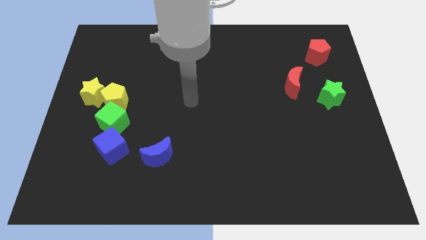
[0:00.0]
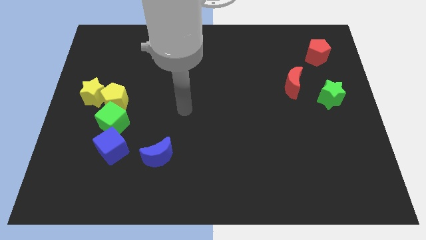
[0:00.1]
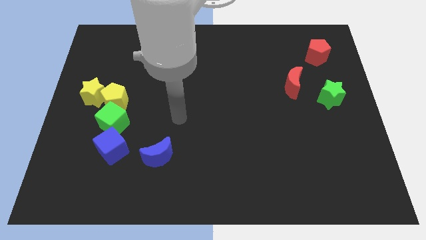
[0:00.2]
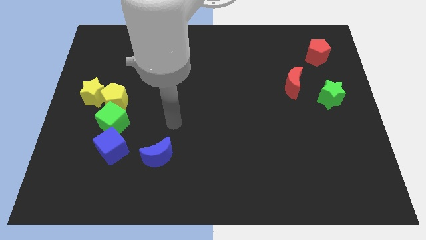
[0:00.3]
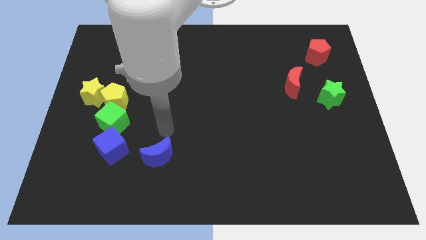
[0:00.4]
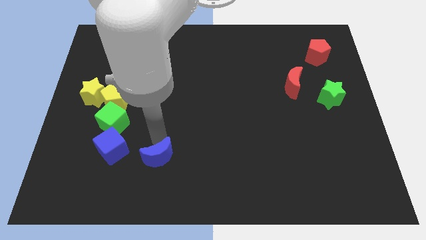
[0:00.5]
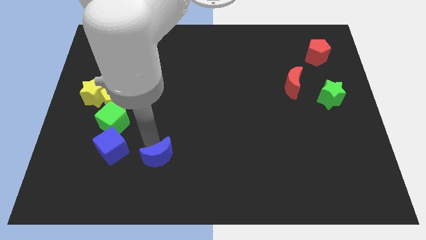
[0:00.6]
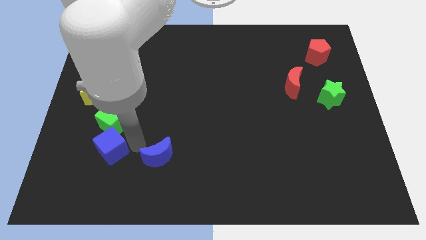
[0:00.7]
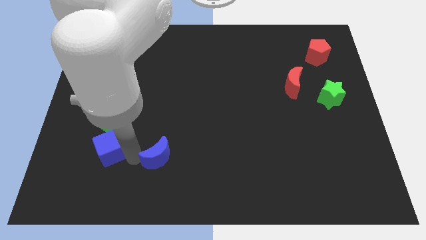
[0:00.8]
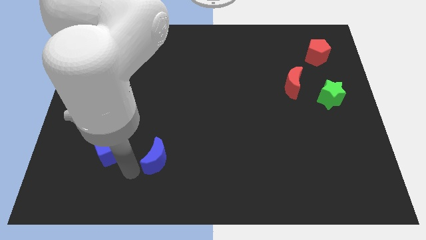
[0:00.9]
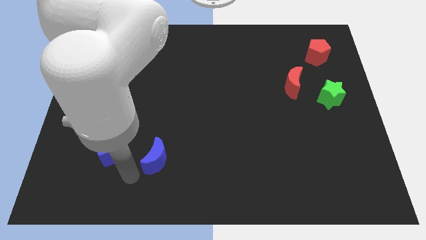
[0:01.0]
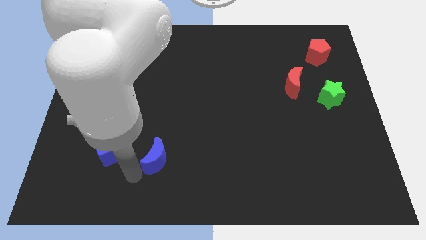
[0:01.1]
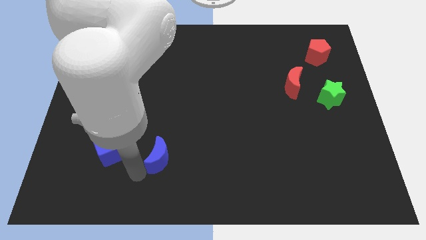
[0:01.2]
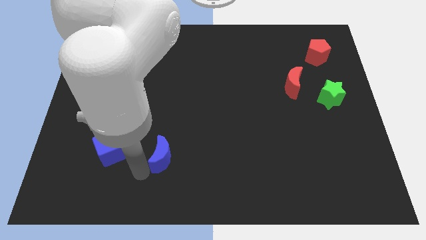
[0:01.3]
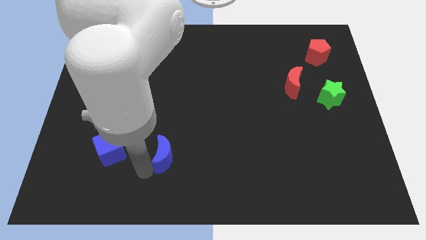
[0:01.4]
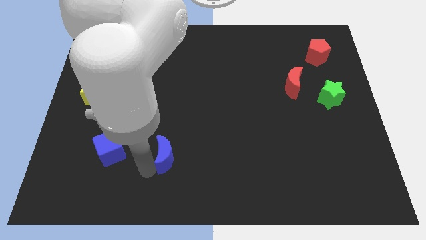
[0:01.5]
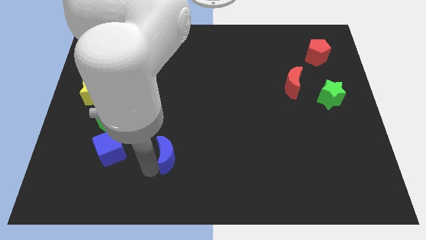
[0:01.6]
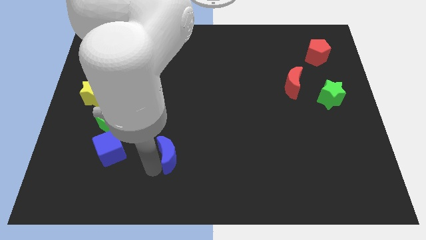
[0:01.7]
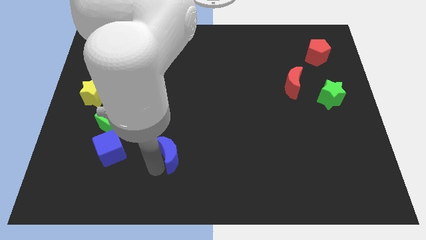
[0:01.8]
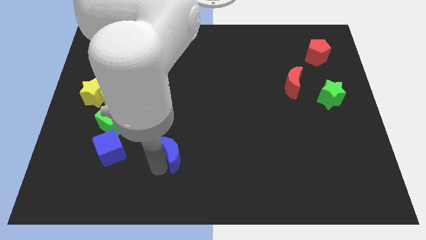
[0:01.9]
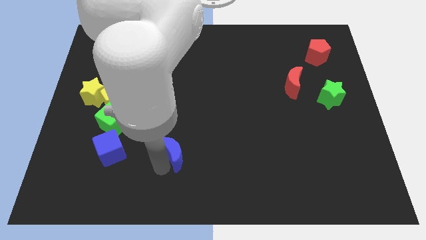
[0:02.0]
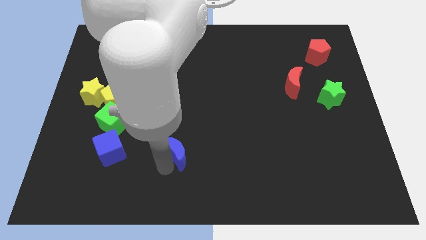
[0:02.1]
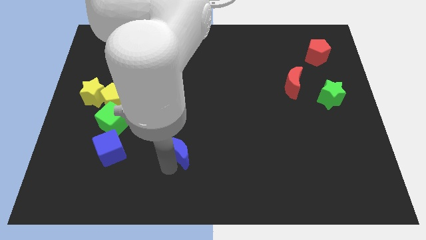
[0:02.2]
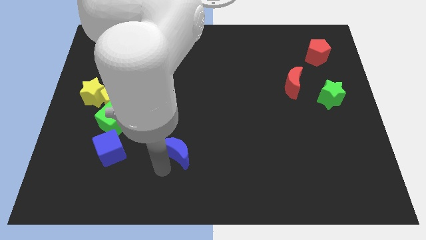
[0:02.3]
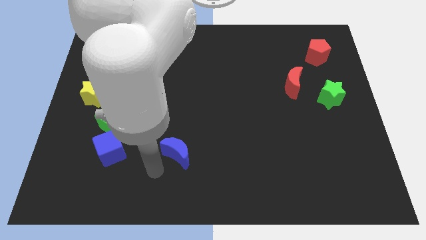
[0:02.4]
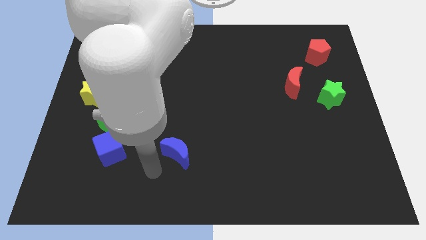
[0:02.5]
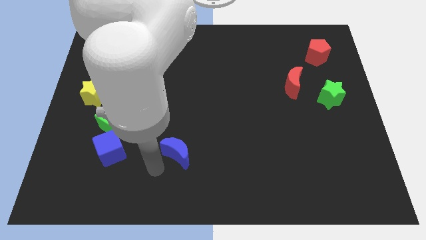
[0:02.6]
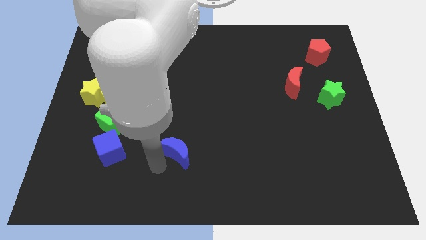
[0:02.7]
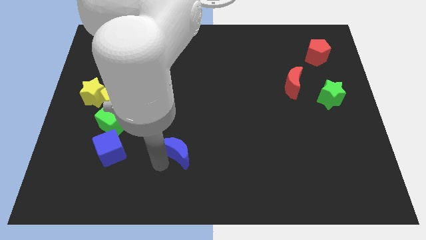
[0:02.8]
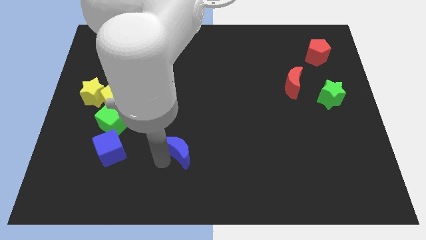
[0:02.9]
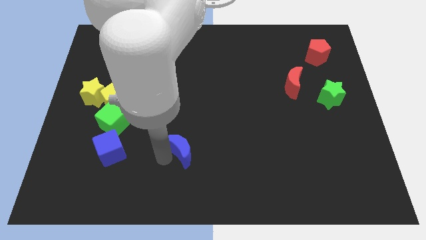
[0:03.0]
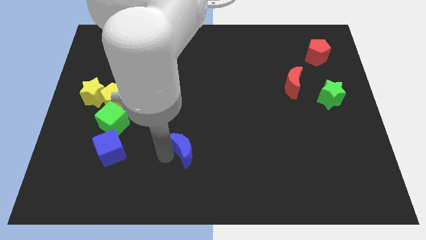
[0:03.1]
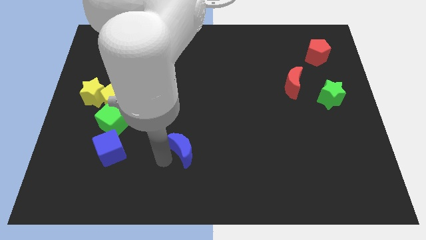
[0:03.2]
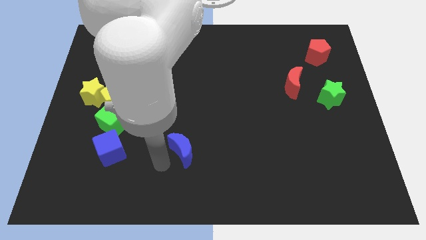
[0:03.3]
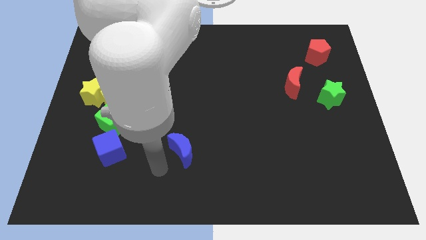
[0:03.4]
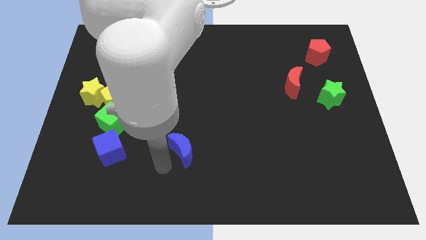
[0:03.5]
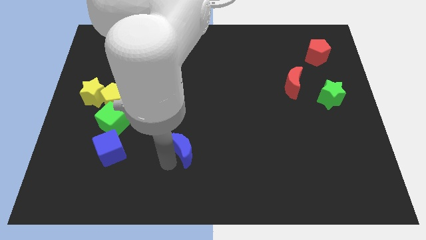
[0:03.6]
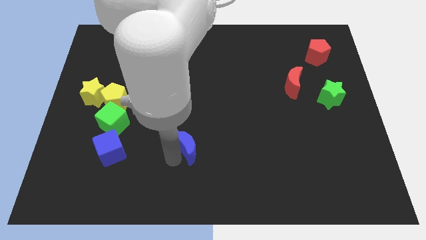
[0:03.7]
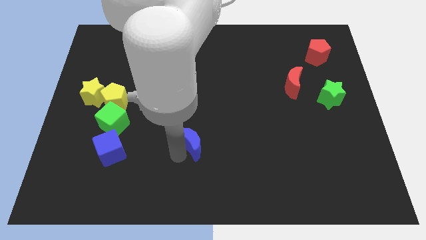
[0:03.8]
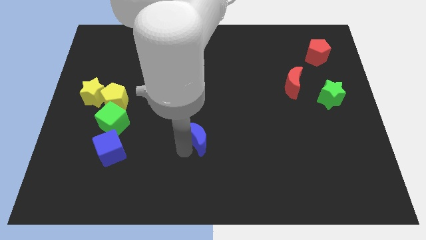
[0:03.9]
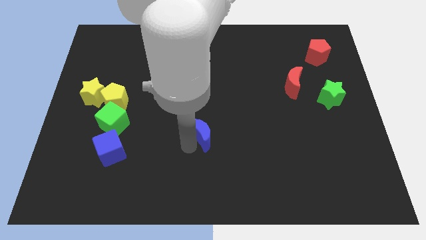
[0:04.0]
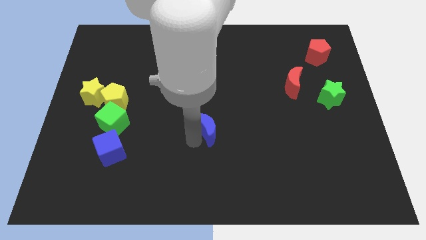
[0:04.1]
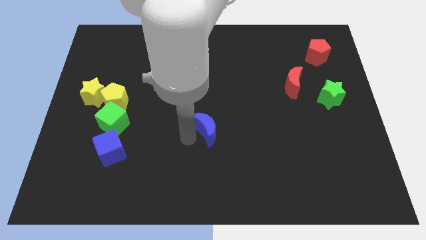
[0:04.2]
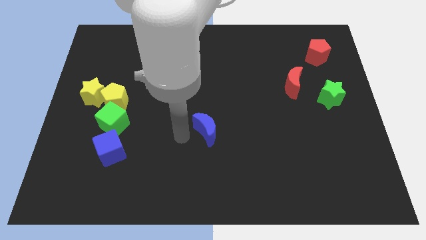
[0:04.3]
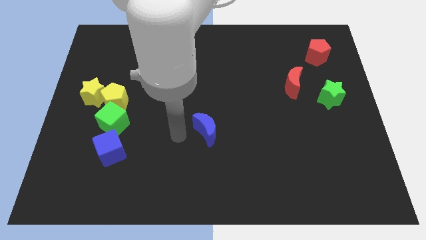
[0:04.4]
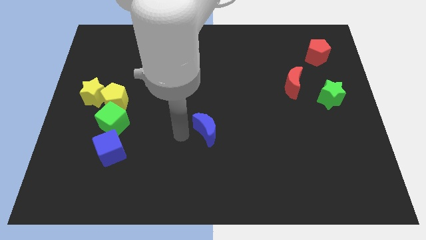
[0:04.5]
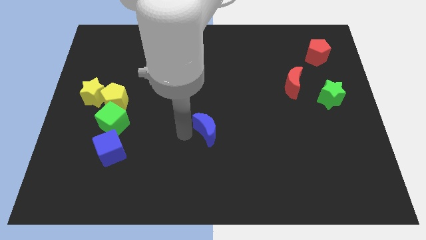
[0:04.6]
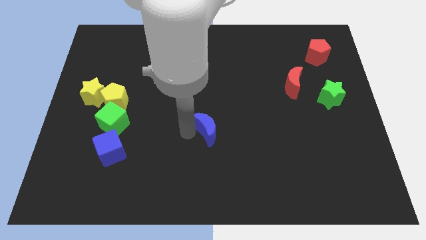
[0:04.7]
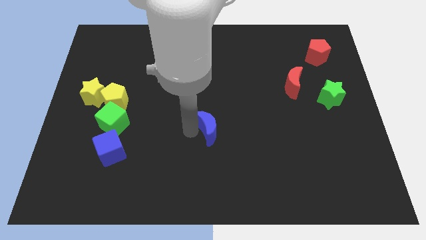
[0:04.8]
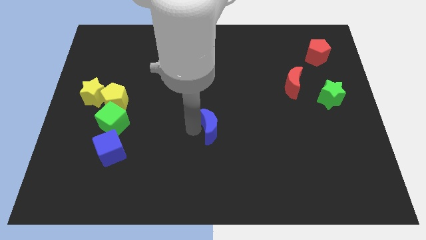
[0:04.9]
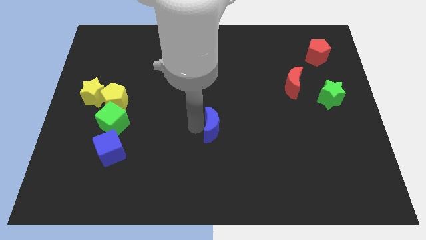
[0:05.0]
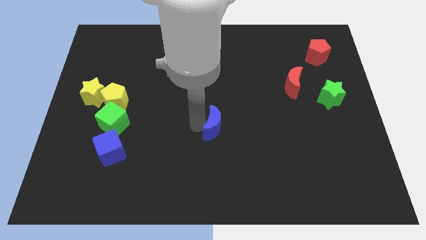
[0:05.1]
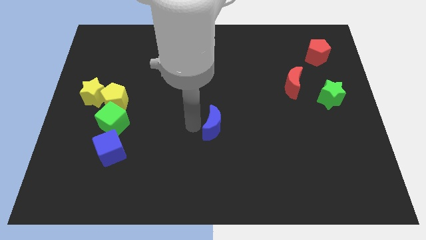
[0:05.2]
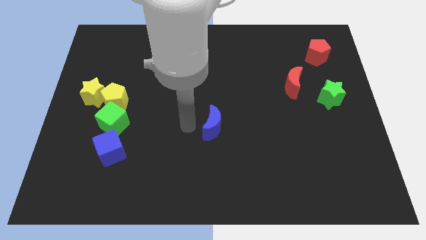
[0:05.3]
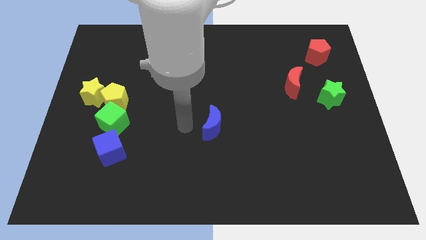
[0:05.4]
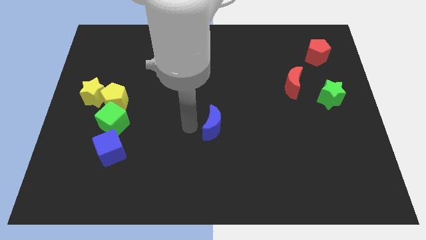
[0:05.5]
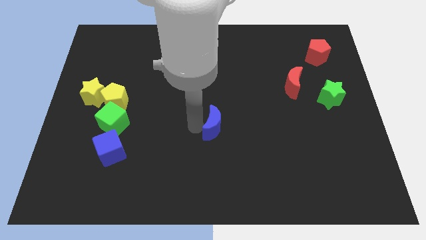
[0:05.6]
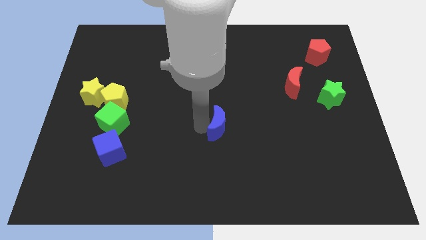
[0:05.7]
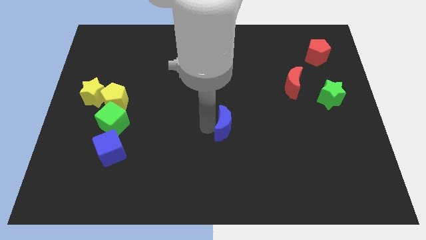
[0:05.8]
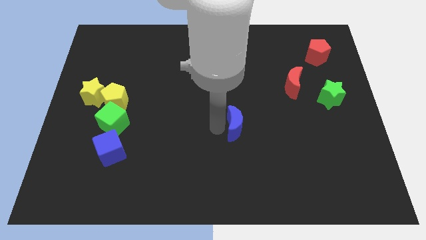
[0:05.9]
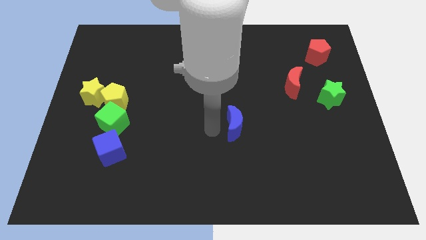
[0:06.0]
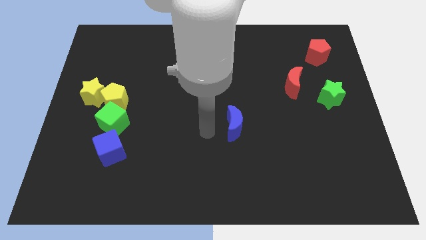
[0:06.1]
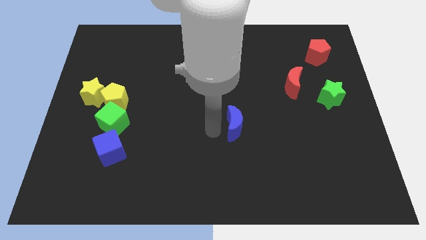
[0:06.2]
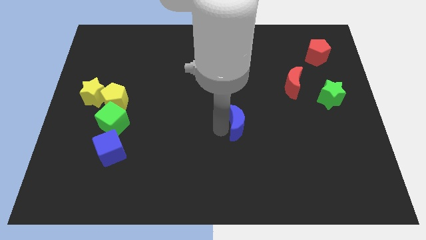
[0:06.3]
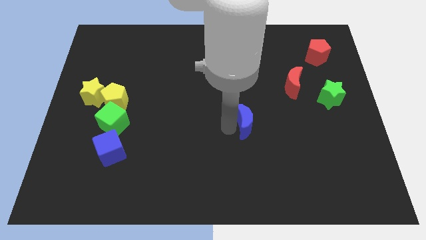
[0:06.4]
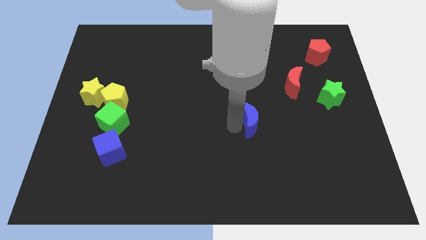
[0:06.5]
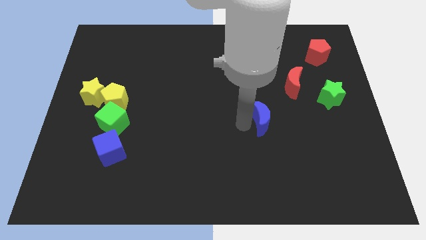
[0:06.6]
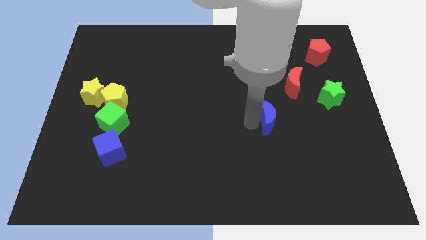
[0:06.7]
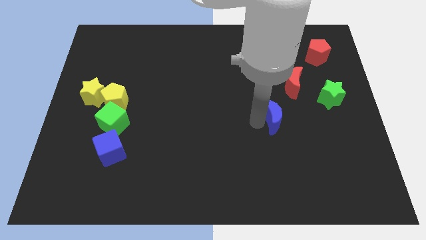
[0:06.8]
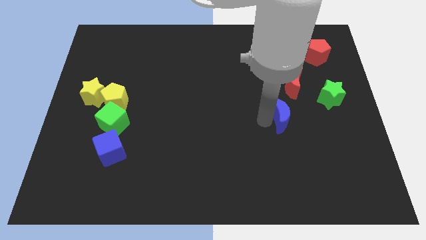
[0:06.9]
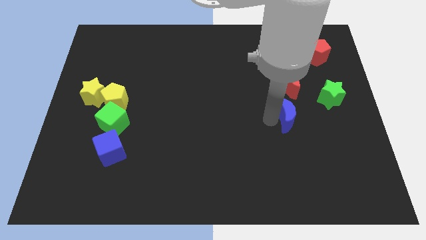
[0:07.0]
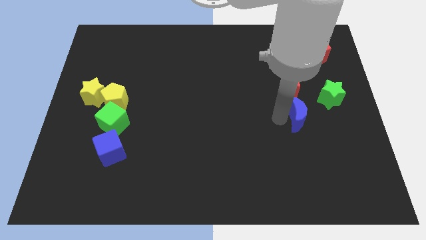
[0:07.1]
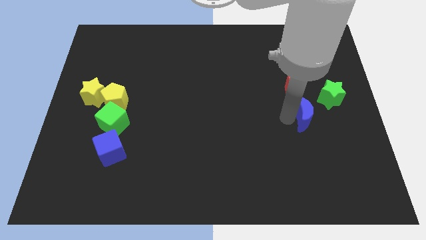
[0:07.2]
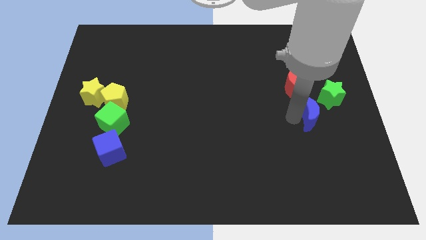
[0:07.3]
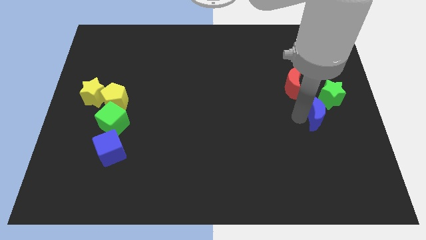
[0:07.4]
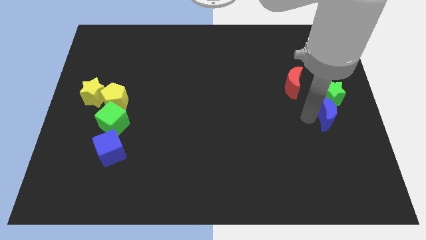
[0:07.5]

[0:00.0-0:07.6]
push the blue moon to the right side
